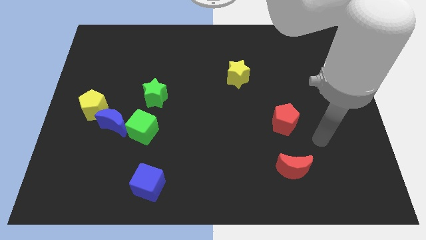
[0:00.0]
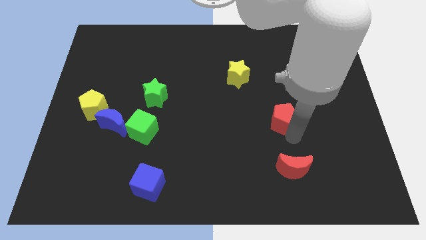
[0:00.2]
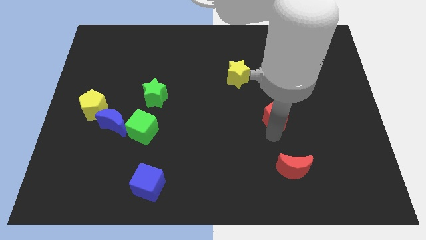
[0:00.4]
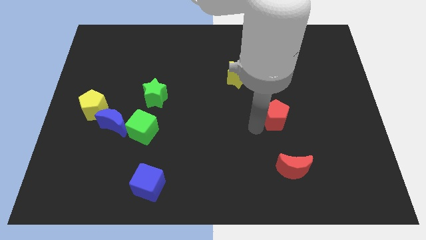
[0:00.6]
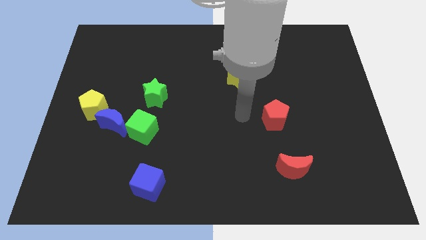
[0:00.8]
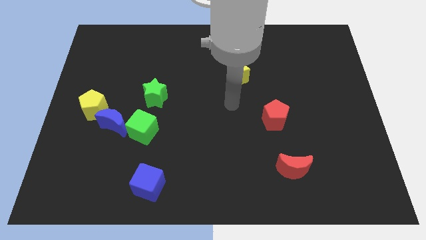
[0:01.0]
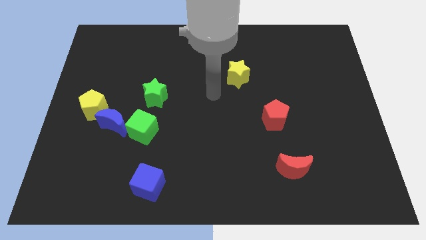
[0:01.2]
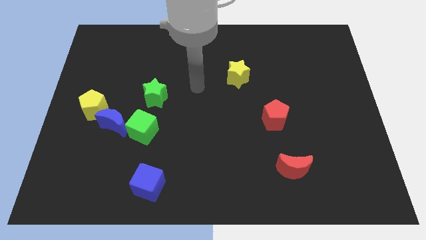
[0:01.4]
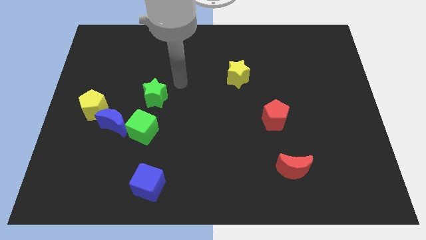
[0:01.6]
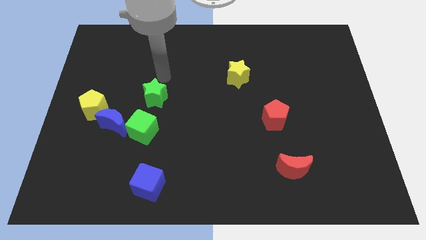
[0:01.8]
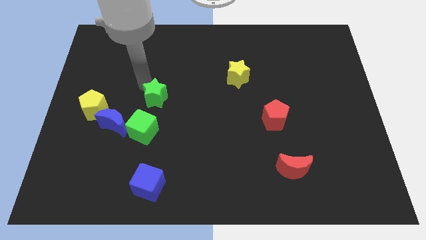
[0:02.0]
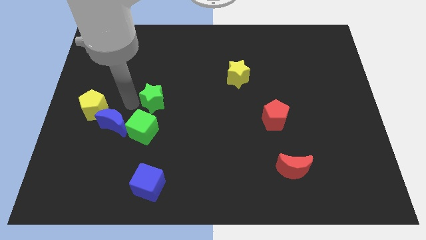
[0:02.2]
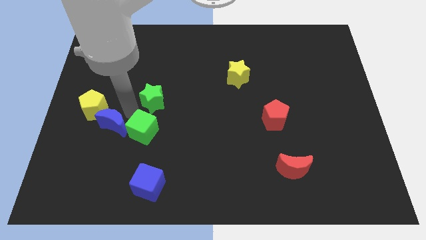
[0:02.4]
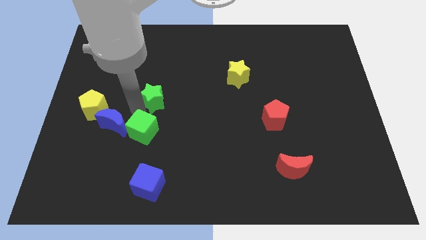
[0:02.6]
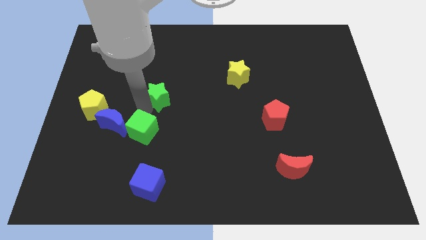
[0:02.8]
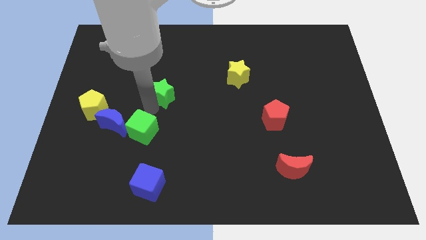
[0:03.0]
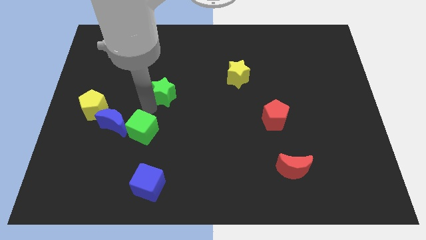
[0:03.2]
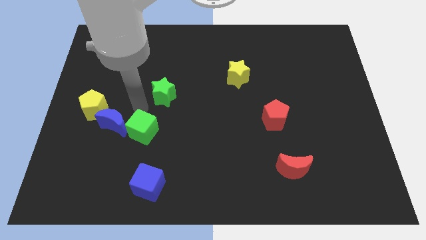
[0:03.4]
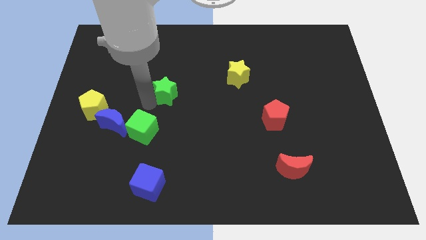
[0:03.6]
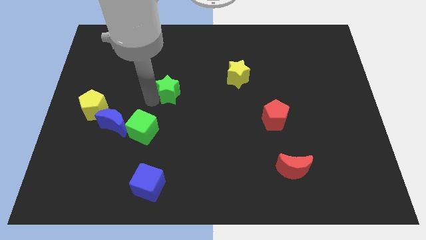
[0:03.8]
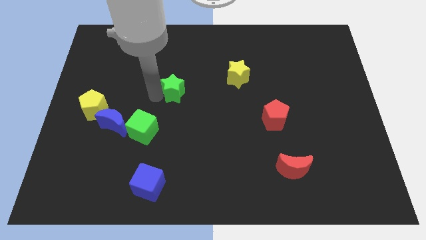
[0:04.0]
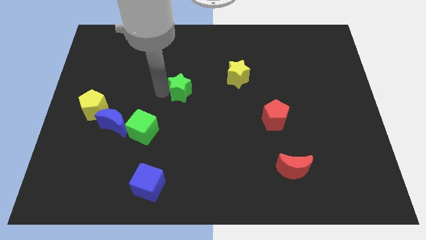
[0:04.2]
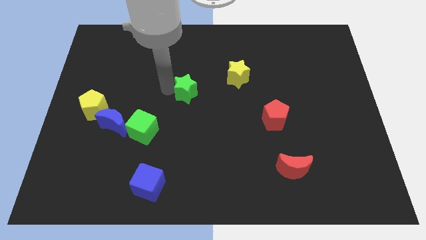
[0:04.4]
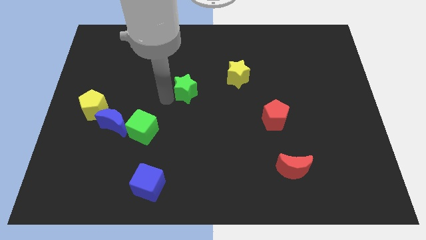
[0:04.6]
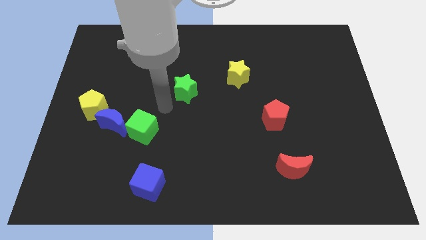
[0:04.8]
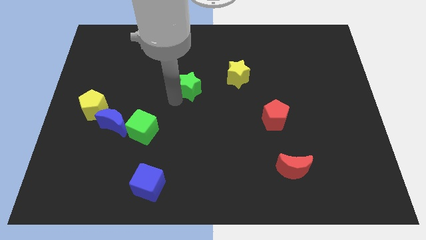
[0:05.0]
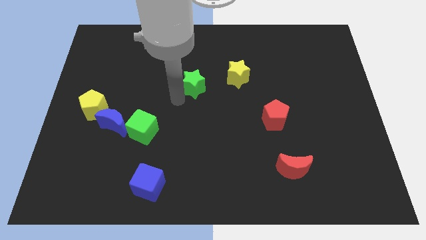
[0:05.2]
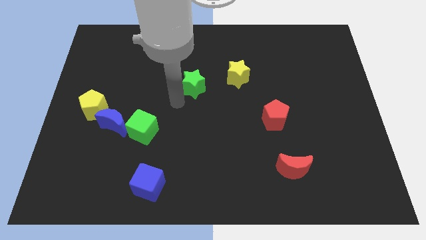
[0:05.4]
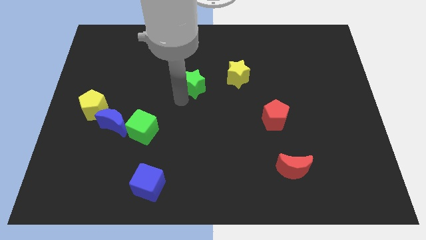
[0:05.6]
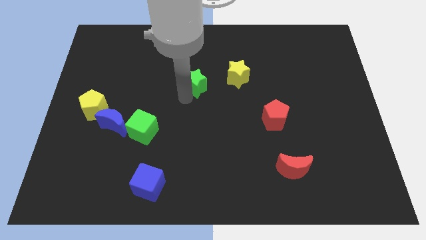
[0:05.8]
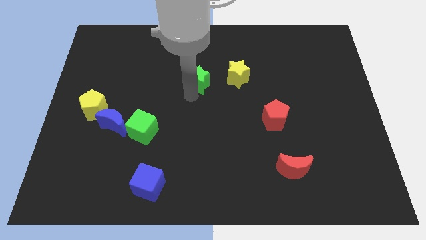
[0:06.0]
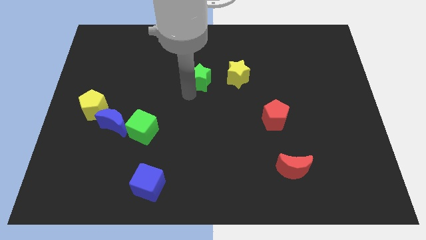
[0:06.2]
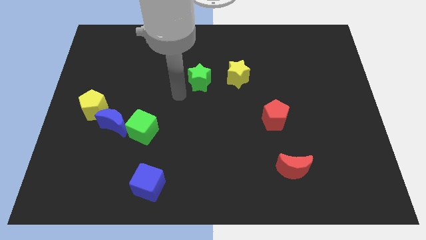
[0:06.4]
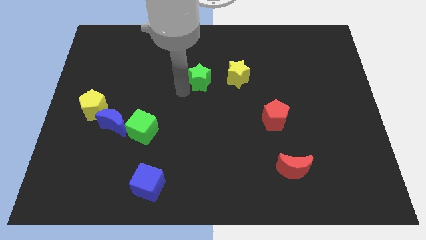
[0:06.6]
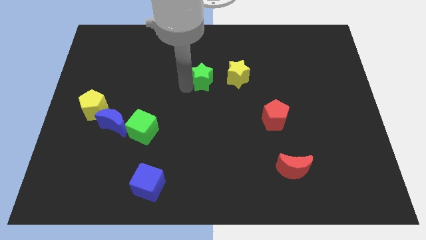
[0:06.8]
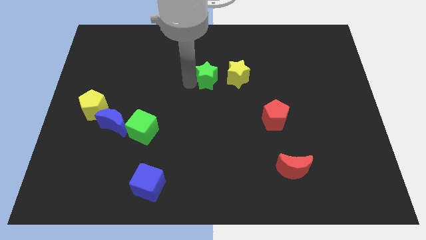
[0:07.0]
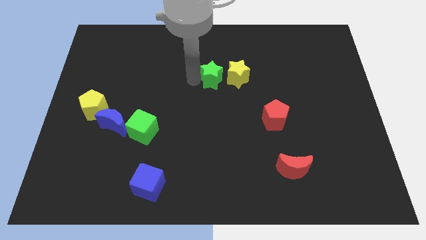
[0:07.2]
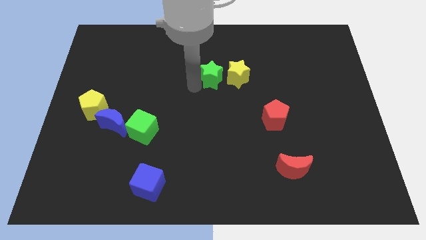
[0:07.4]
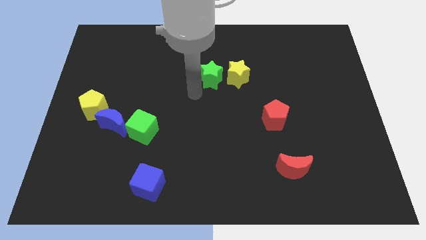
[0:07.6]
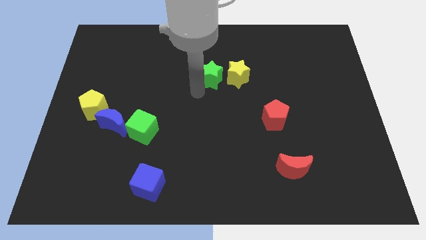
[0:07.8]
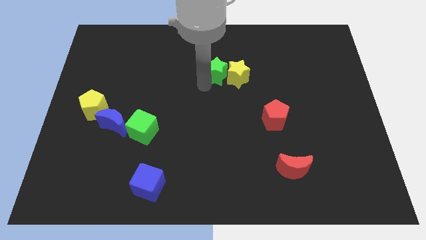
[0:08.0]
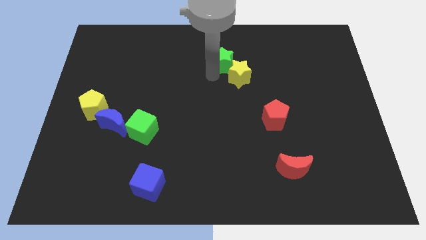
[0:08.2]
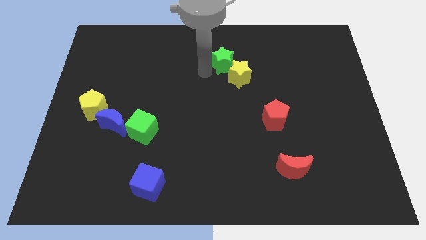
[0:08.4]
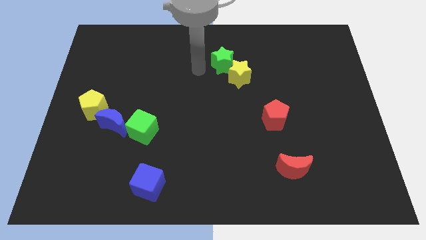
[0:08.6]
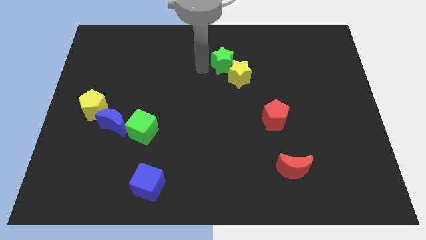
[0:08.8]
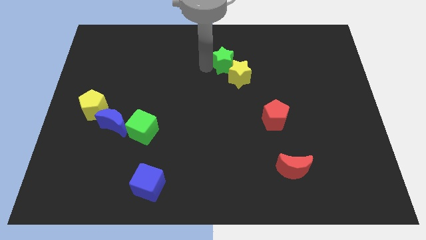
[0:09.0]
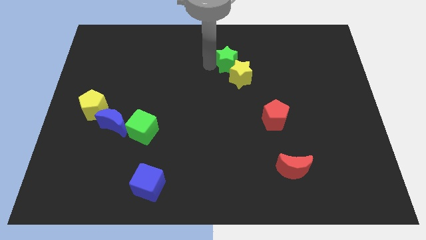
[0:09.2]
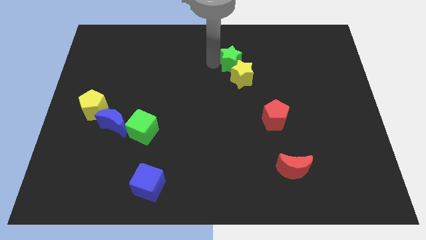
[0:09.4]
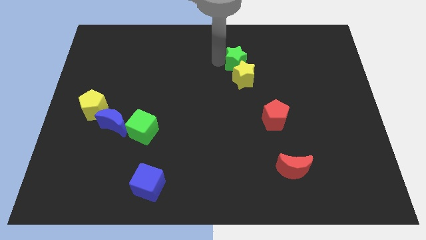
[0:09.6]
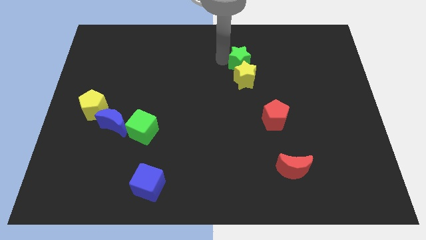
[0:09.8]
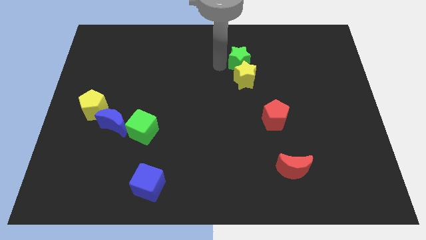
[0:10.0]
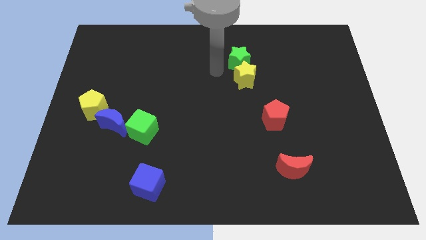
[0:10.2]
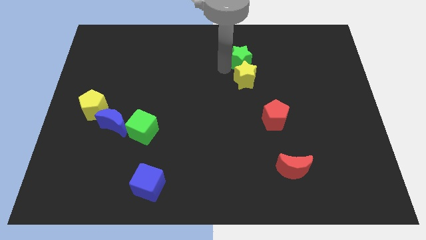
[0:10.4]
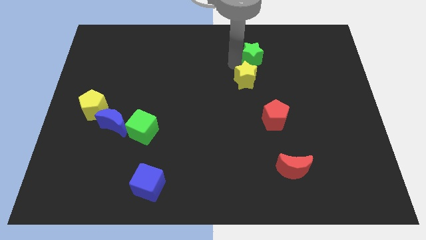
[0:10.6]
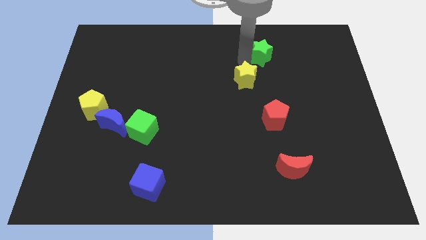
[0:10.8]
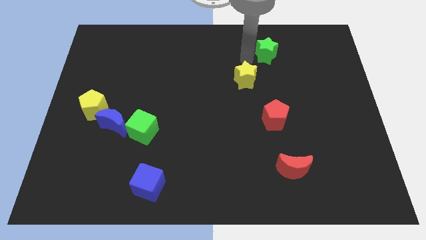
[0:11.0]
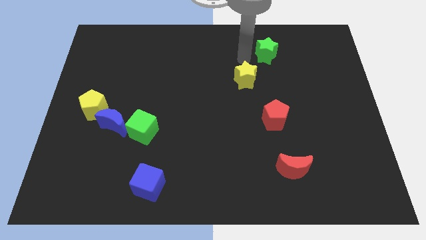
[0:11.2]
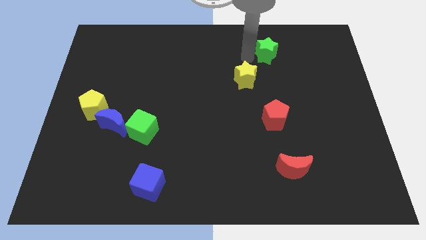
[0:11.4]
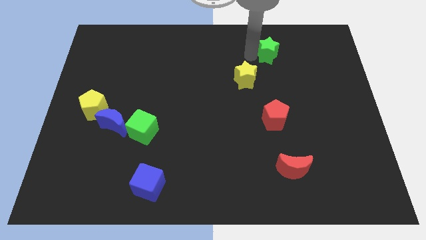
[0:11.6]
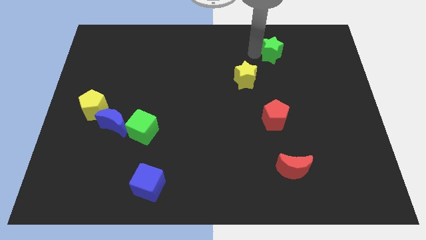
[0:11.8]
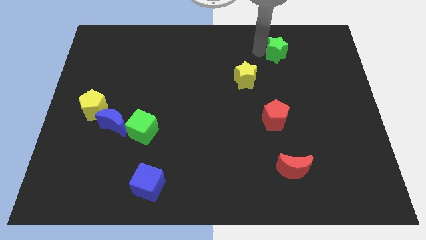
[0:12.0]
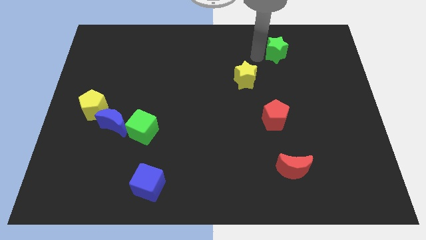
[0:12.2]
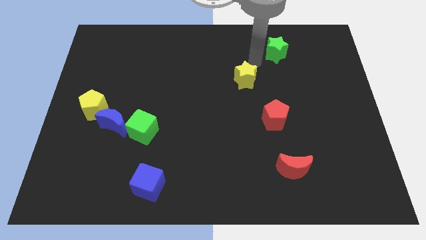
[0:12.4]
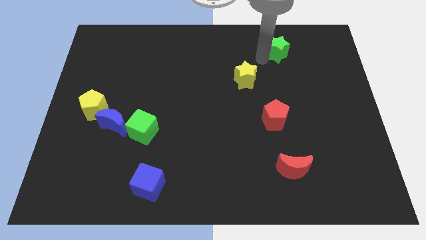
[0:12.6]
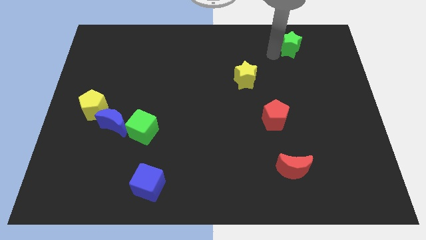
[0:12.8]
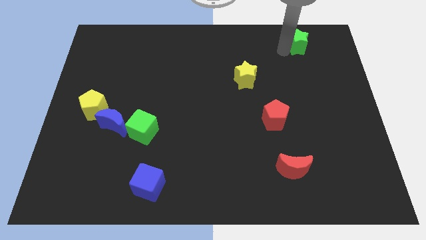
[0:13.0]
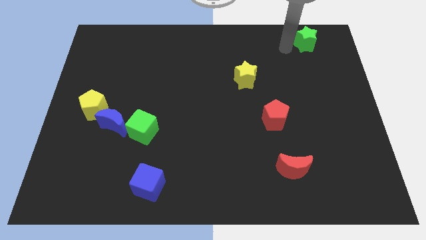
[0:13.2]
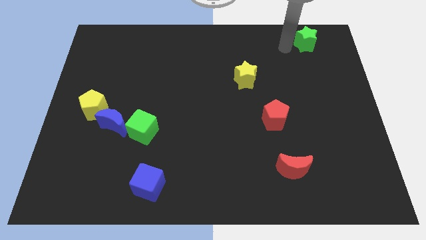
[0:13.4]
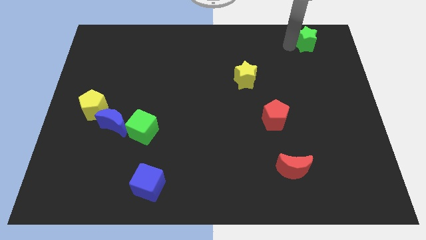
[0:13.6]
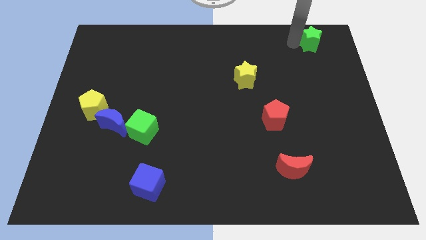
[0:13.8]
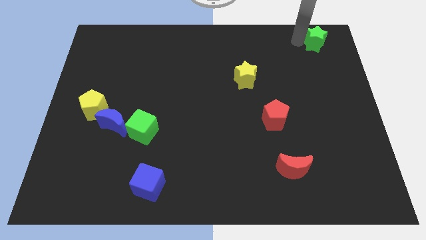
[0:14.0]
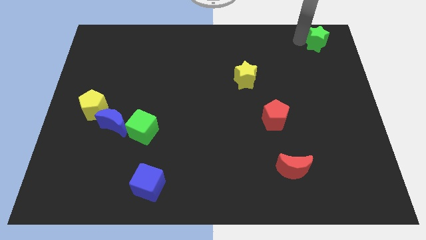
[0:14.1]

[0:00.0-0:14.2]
put the green star to the top right
